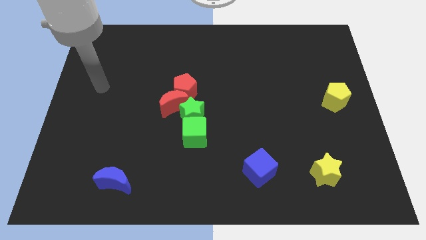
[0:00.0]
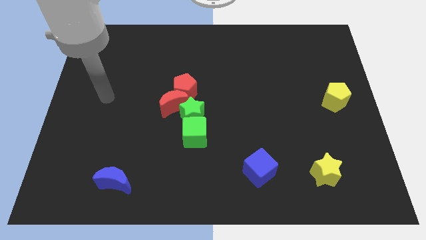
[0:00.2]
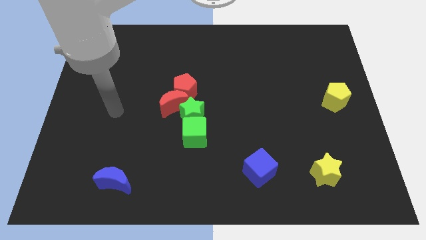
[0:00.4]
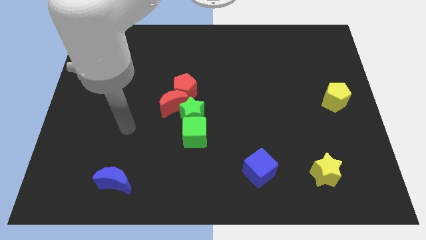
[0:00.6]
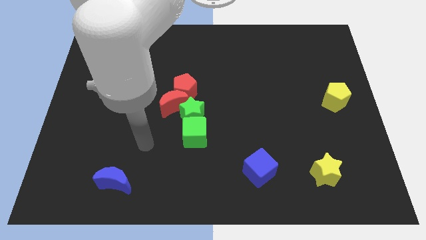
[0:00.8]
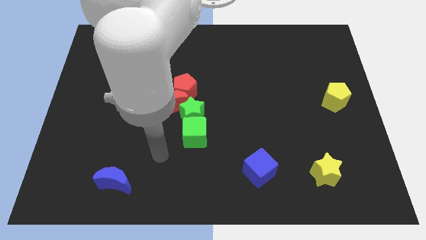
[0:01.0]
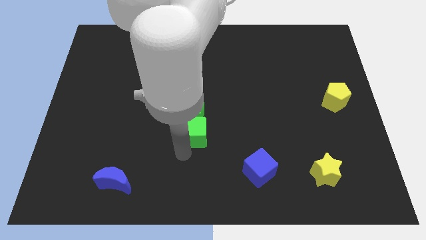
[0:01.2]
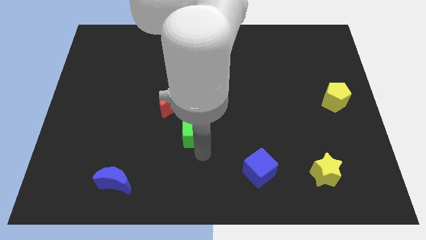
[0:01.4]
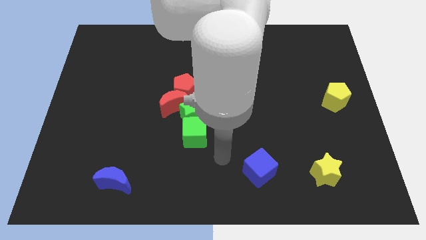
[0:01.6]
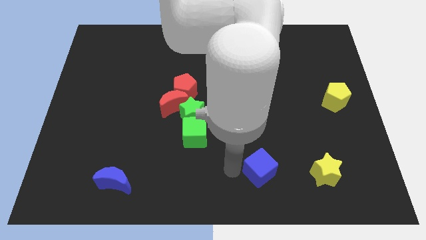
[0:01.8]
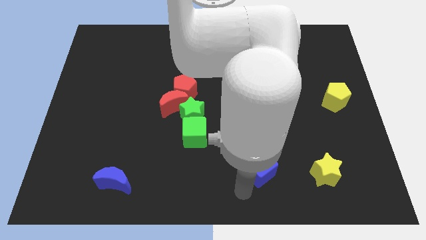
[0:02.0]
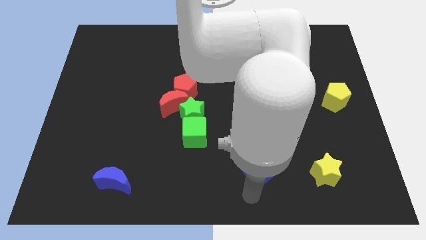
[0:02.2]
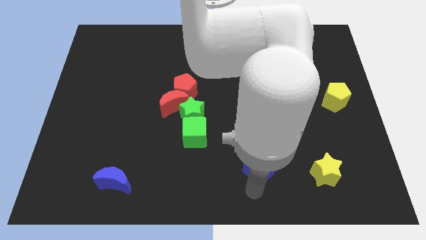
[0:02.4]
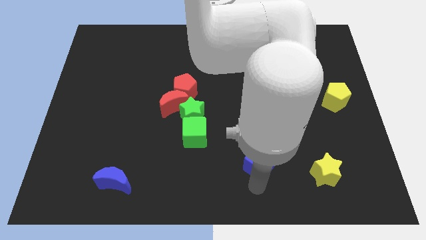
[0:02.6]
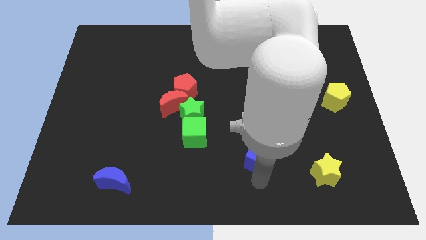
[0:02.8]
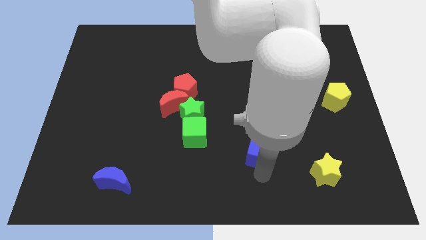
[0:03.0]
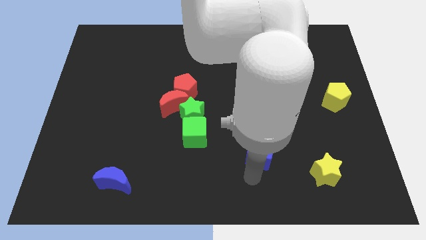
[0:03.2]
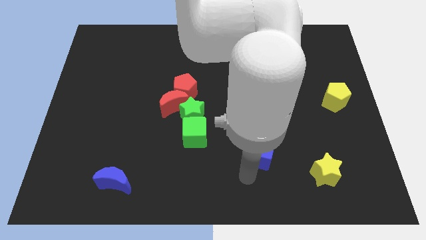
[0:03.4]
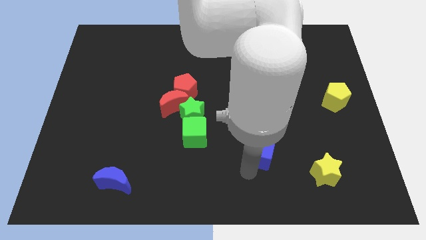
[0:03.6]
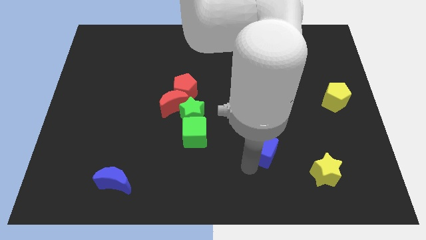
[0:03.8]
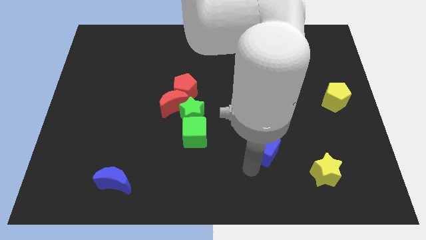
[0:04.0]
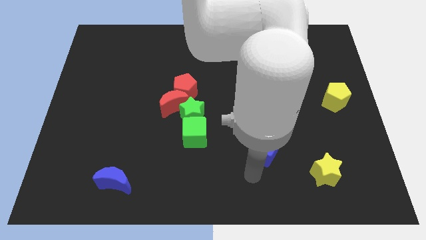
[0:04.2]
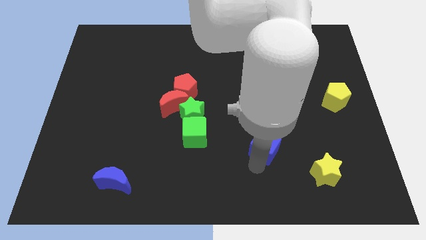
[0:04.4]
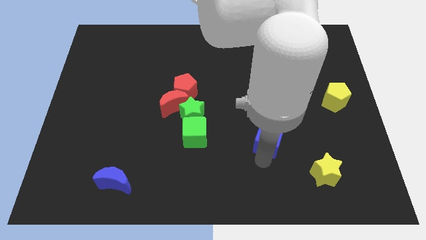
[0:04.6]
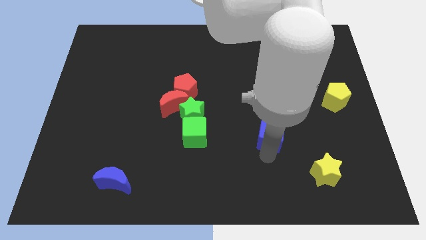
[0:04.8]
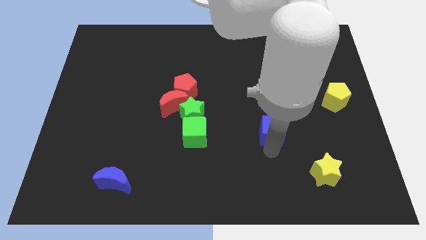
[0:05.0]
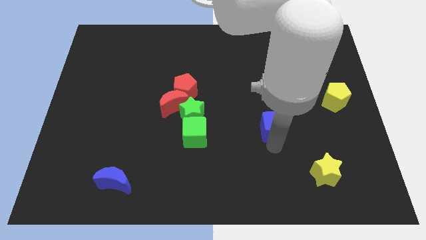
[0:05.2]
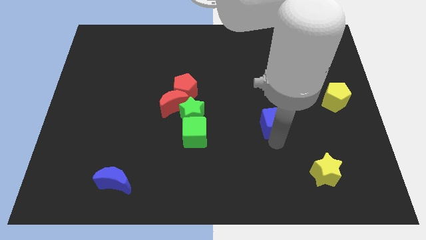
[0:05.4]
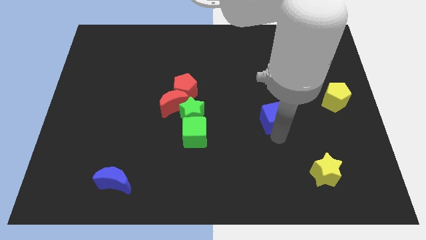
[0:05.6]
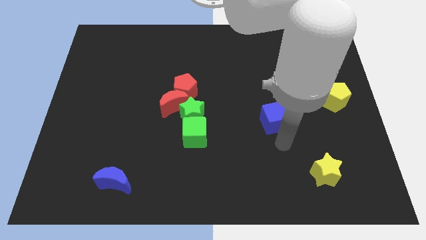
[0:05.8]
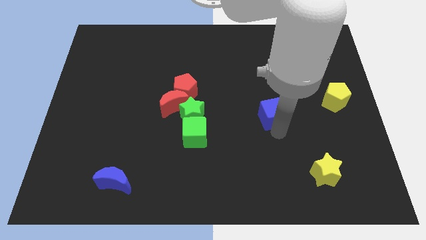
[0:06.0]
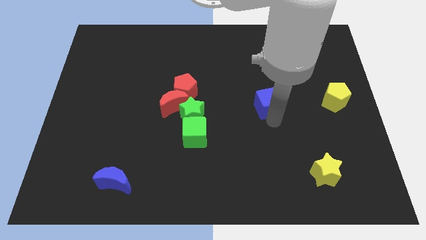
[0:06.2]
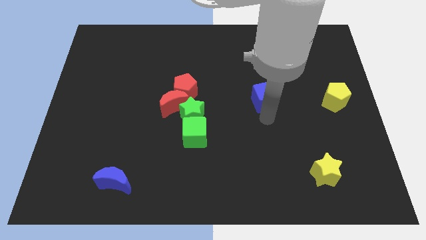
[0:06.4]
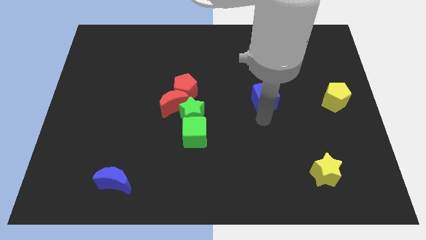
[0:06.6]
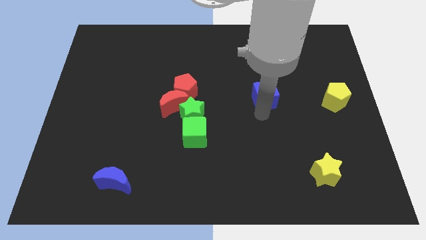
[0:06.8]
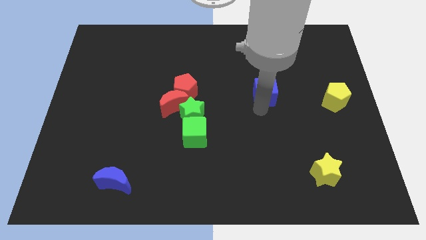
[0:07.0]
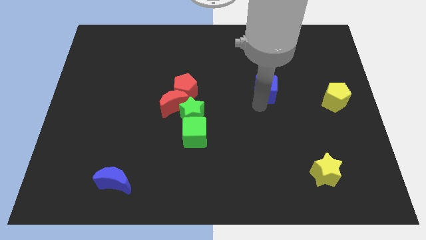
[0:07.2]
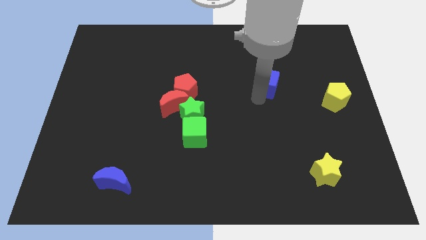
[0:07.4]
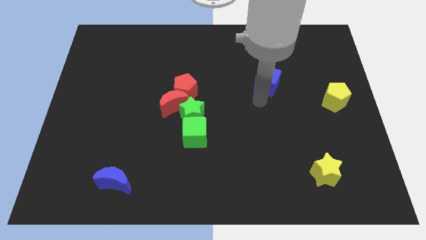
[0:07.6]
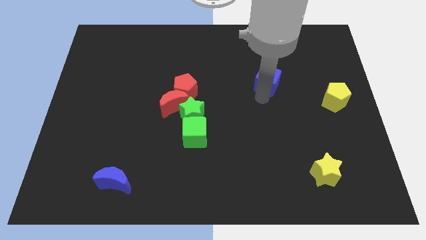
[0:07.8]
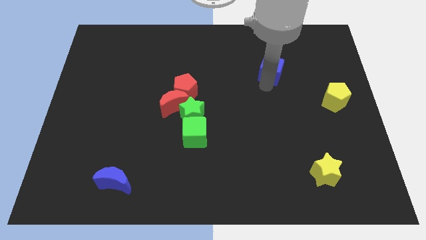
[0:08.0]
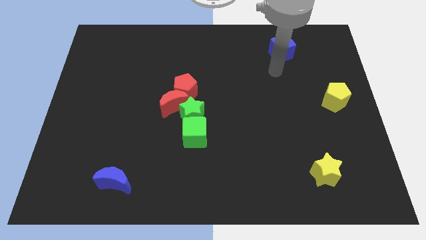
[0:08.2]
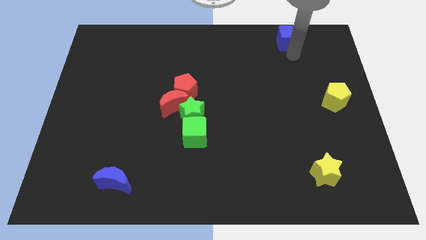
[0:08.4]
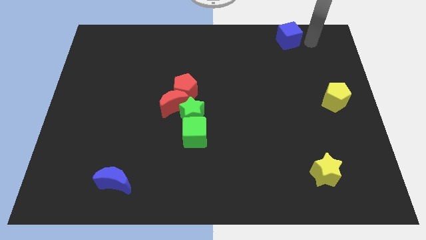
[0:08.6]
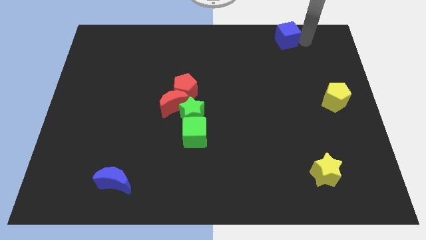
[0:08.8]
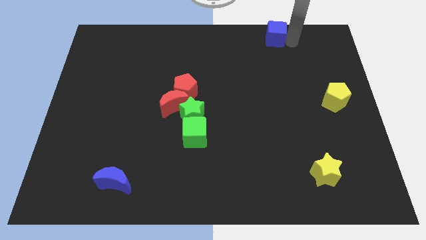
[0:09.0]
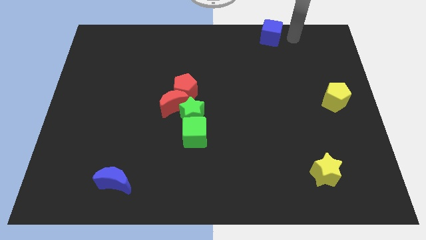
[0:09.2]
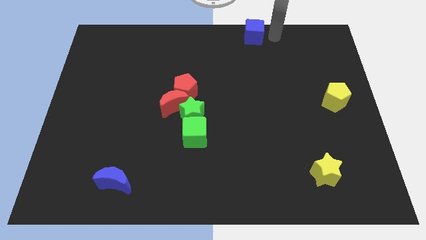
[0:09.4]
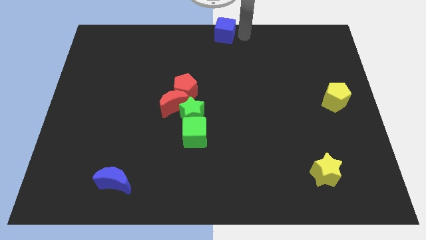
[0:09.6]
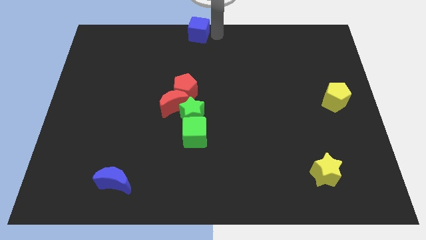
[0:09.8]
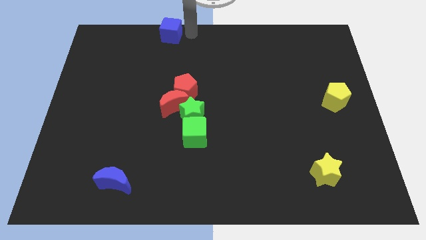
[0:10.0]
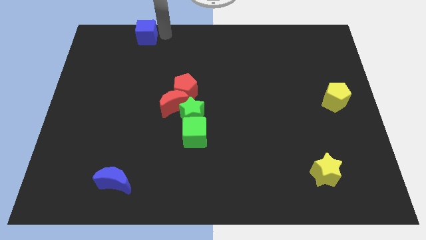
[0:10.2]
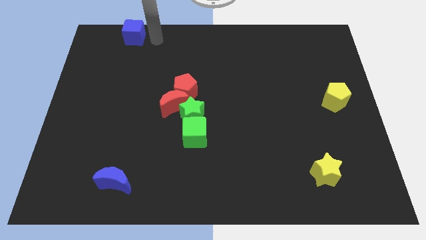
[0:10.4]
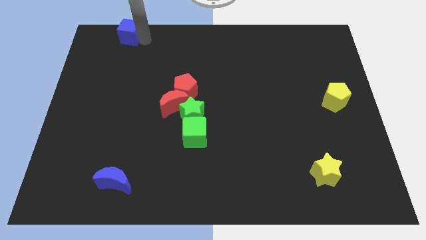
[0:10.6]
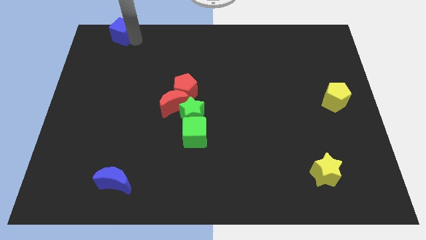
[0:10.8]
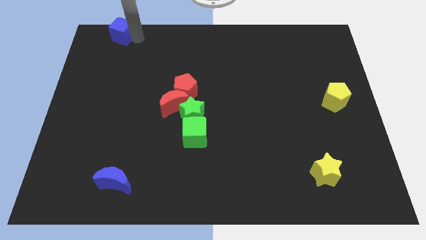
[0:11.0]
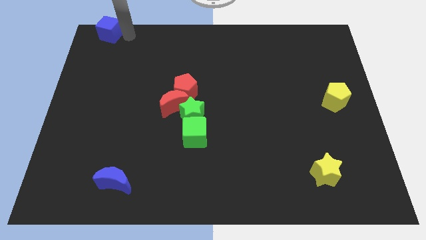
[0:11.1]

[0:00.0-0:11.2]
slide the blue cube to the top left of the board
